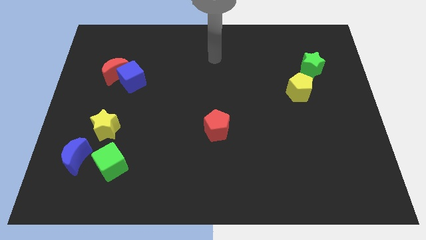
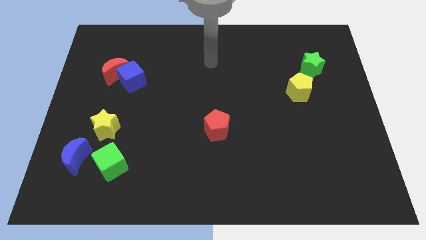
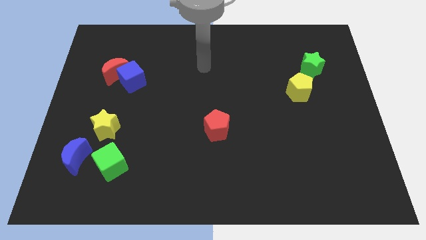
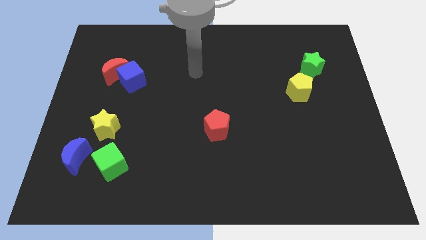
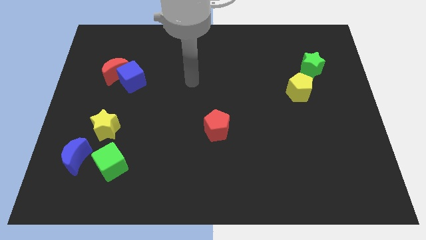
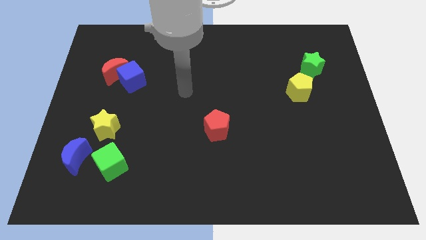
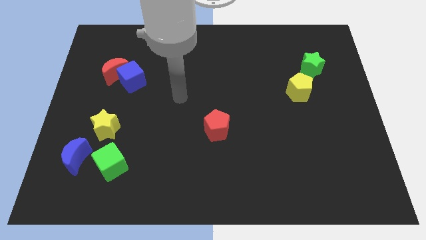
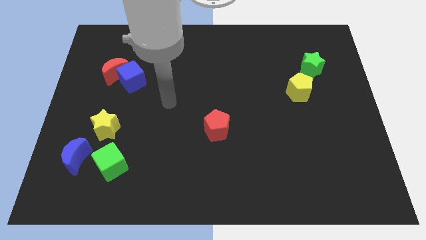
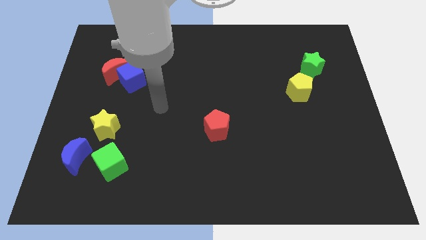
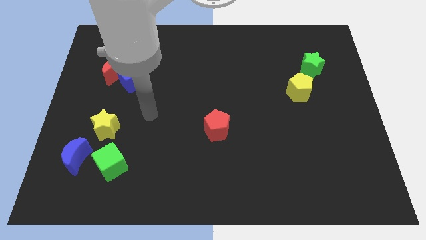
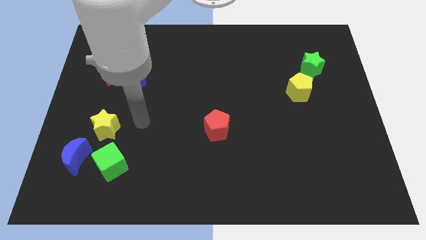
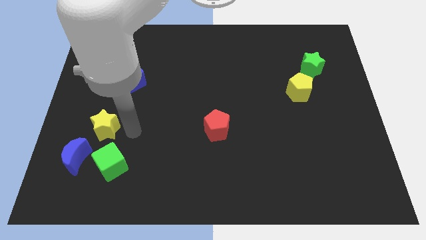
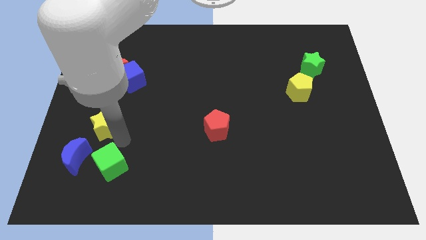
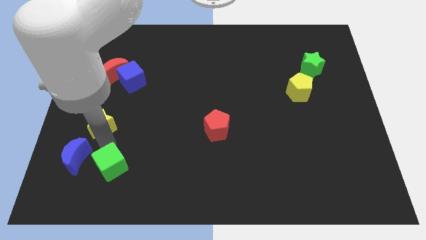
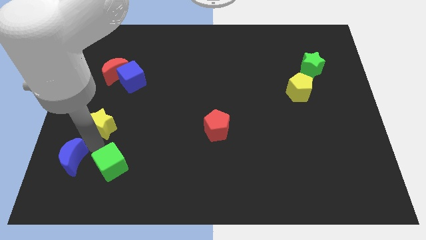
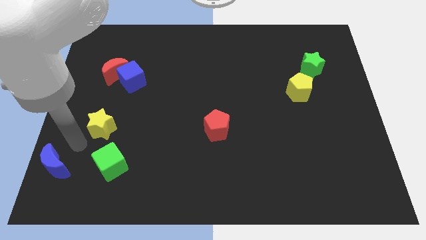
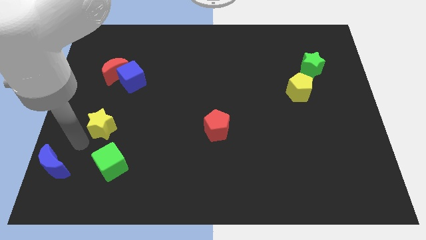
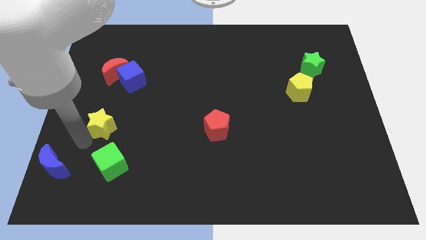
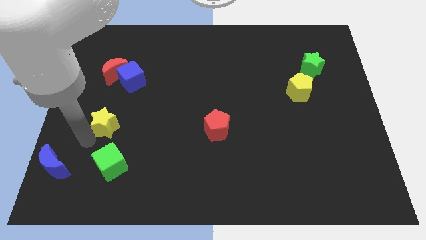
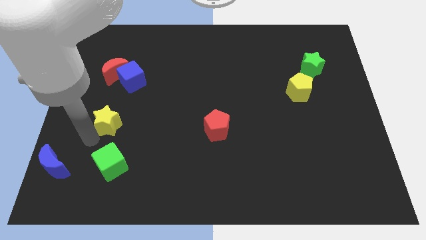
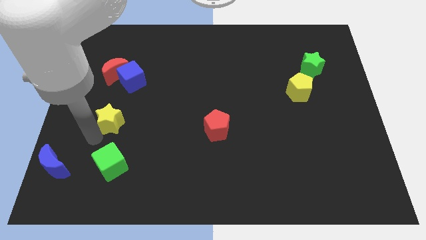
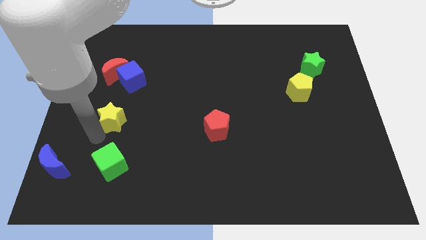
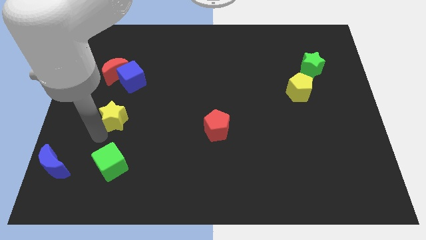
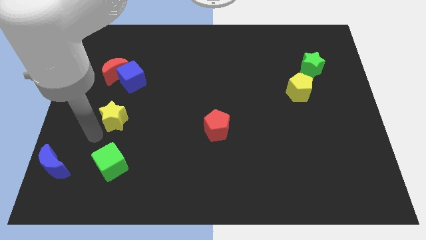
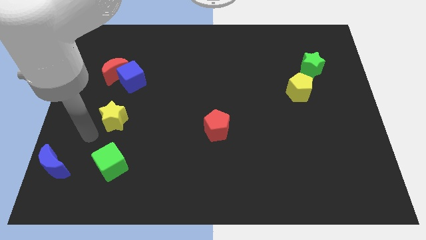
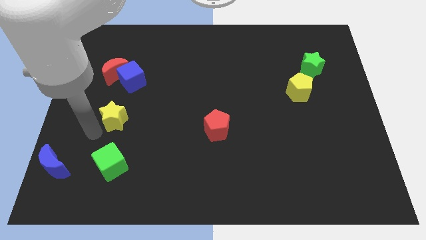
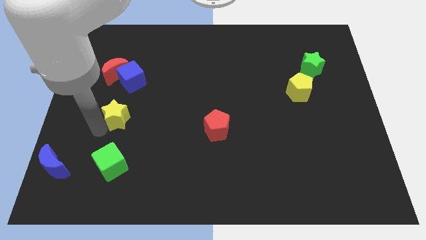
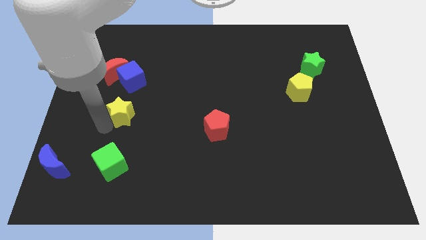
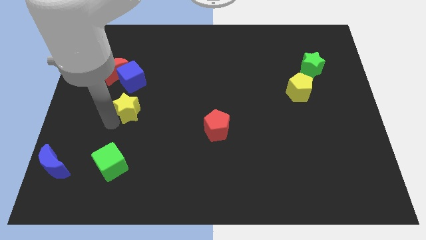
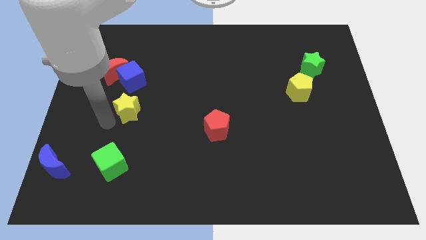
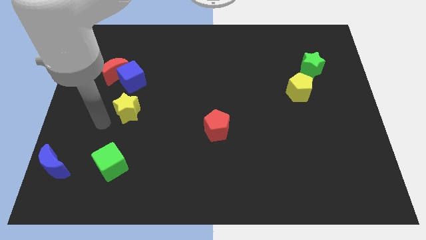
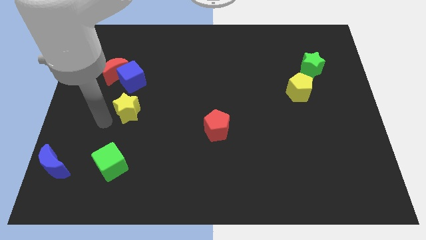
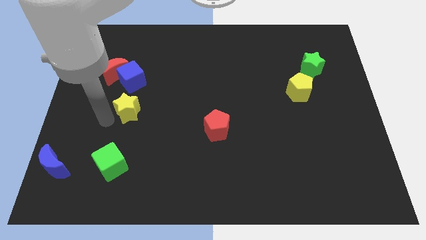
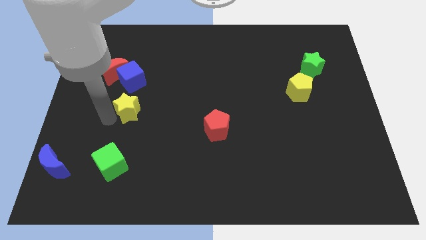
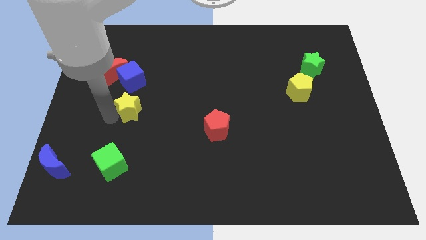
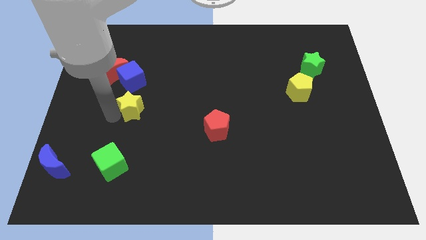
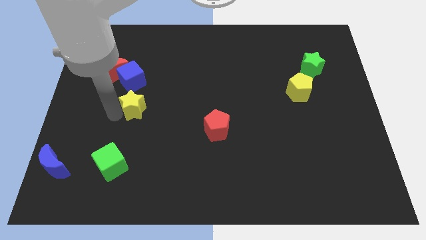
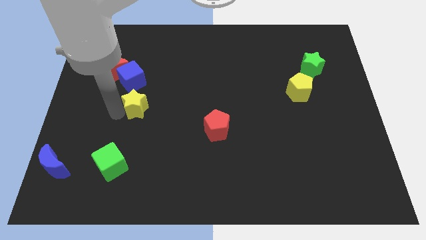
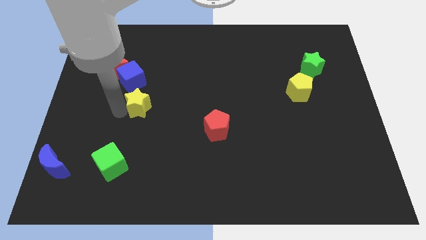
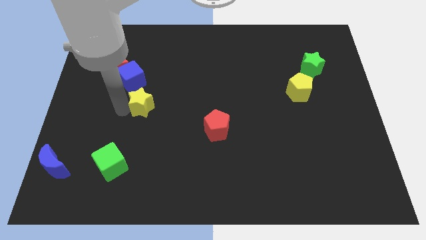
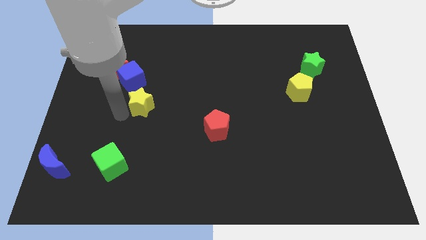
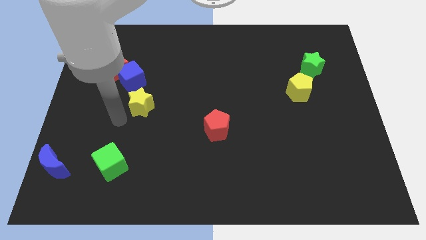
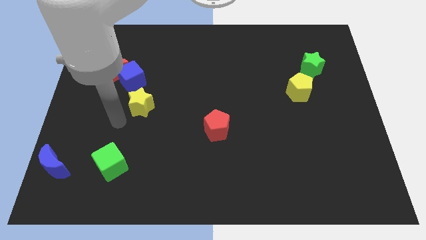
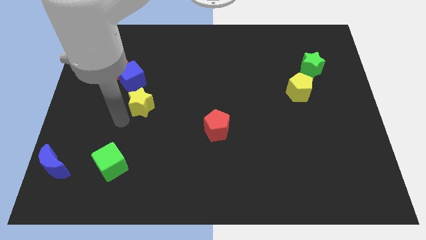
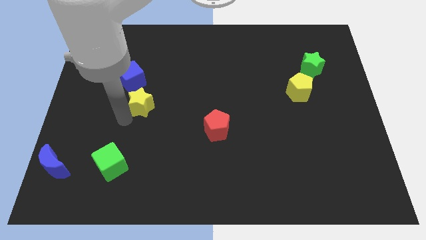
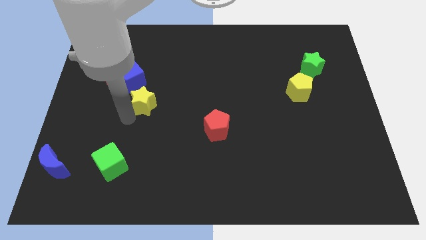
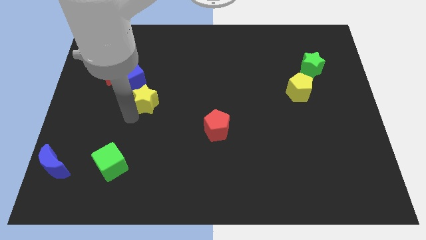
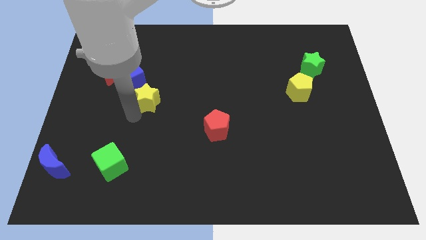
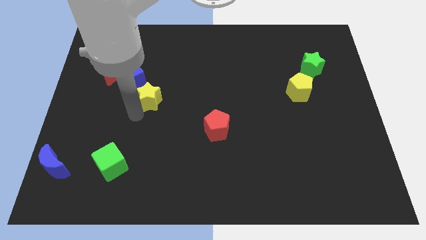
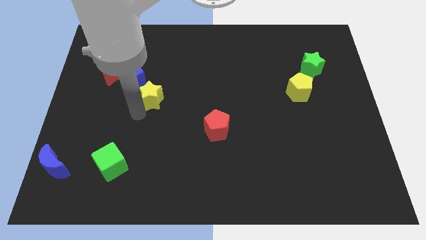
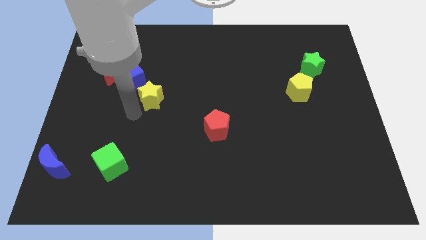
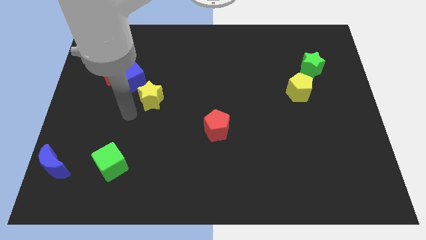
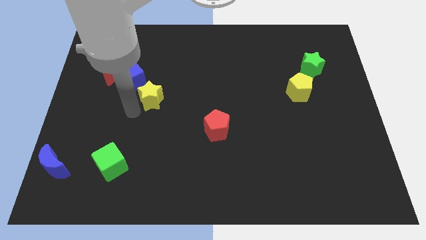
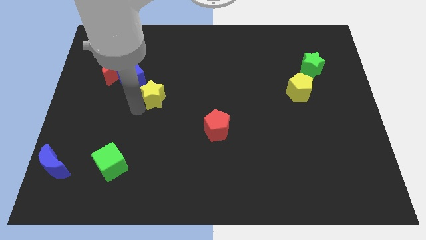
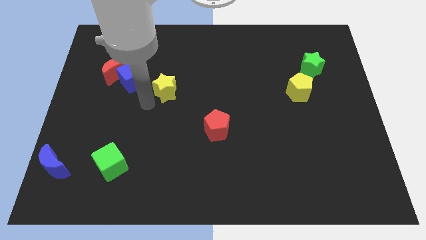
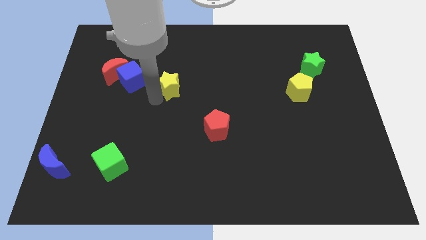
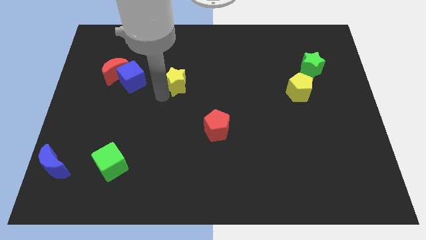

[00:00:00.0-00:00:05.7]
slide the yellow star diagonally up and to the right

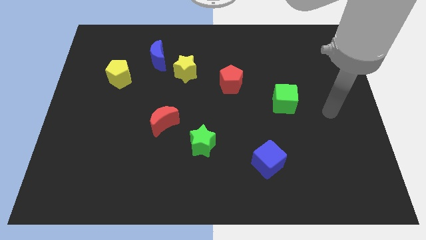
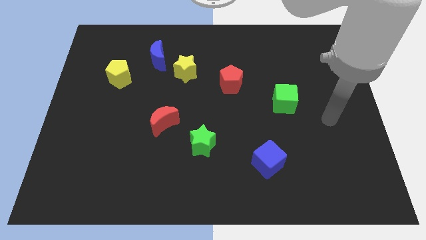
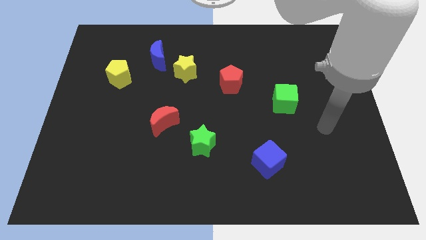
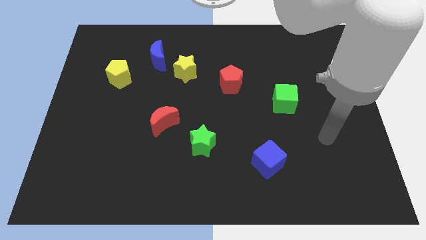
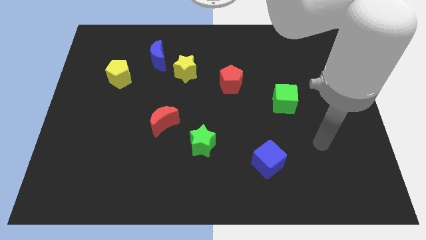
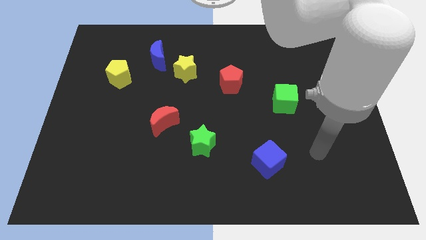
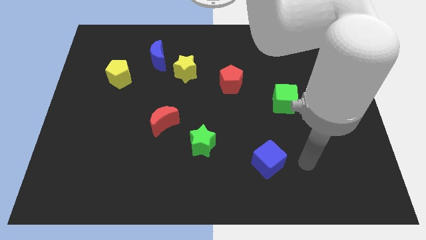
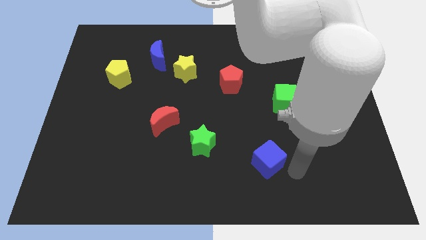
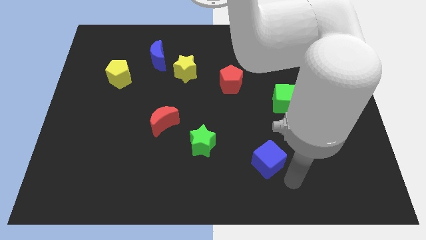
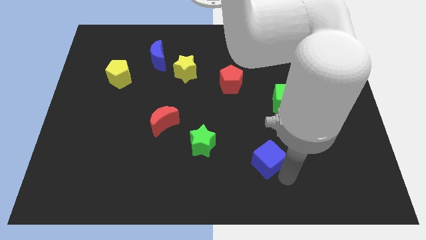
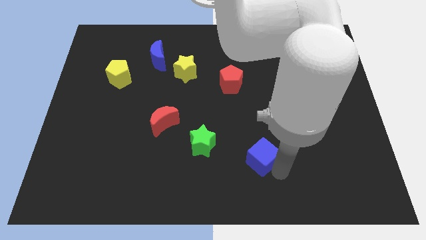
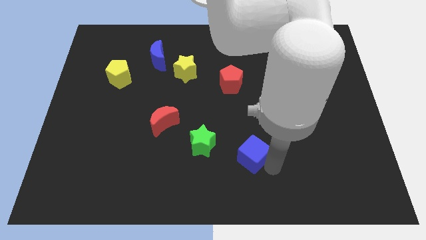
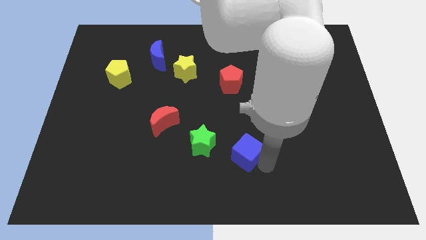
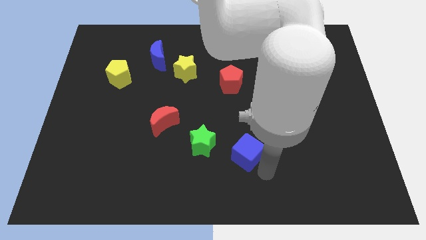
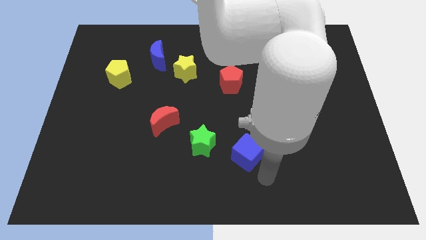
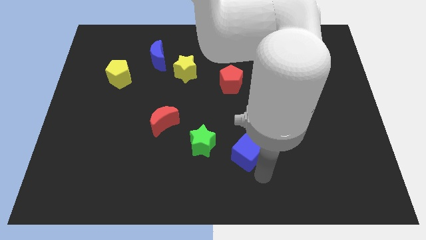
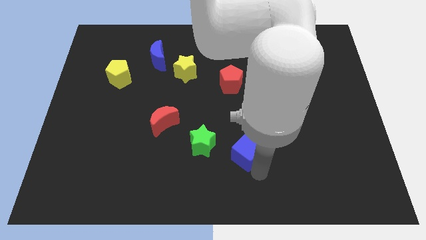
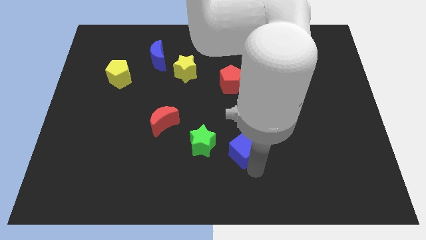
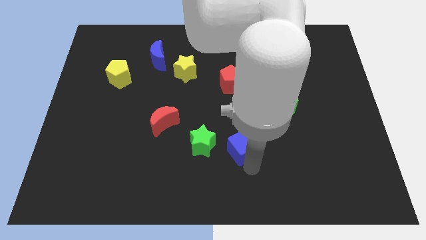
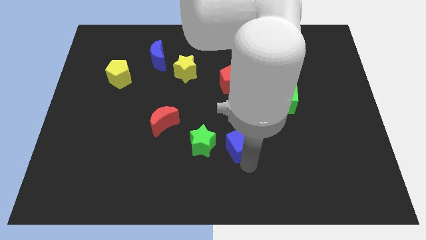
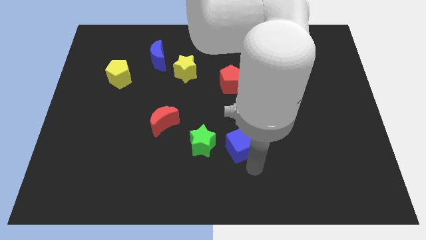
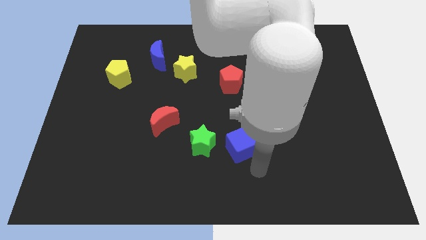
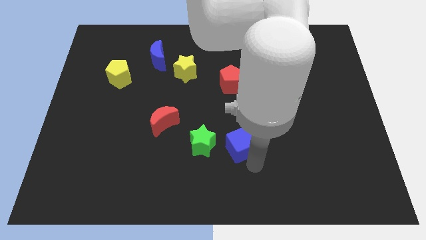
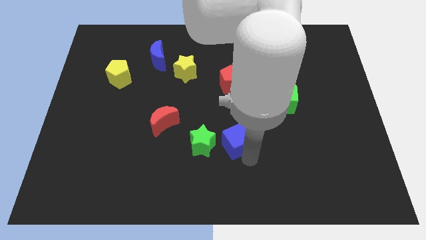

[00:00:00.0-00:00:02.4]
slide the blue cube diagonally up and to the left a bit
